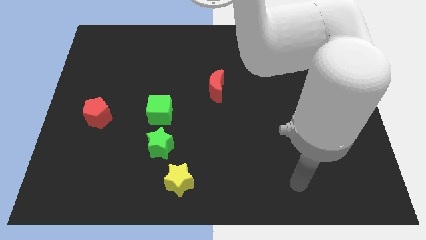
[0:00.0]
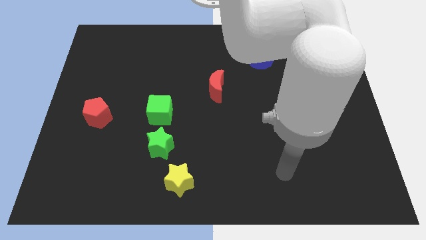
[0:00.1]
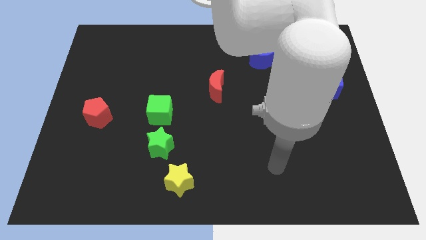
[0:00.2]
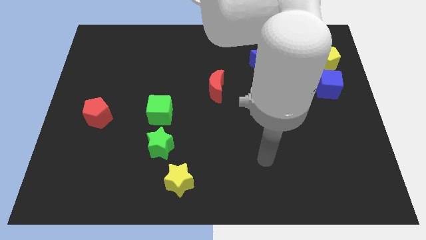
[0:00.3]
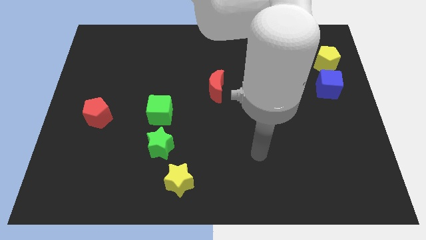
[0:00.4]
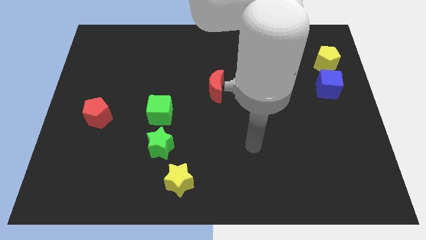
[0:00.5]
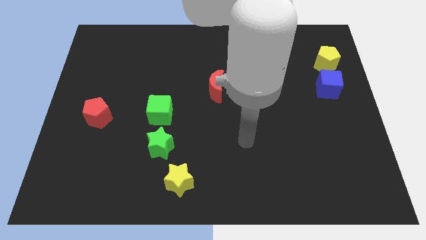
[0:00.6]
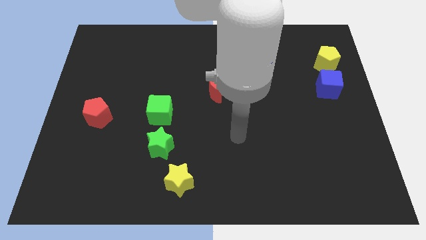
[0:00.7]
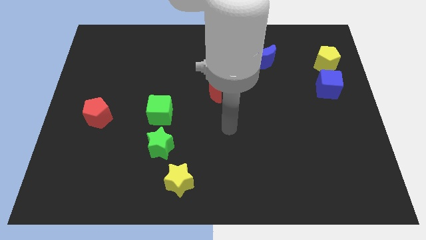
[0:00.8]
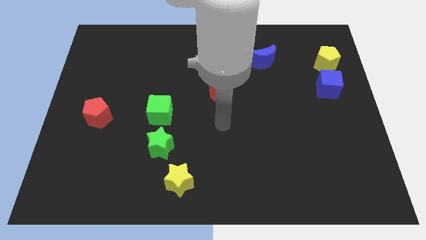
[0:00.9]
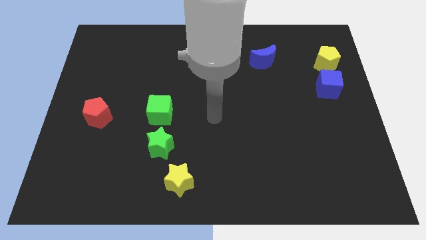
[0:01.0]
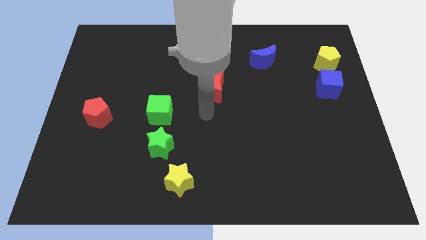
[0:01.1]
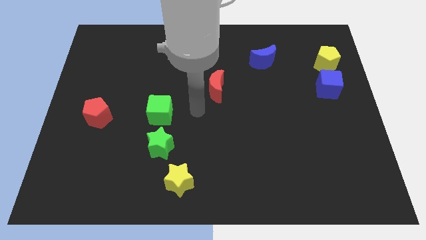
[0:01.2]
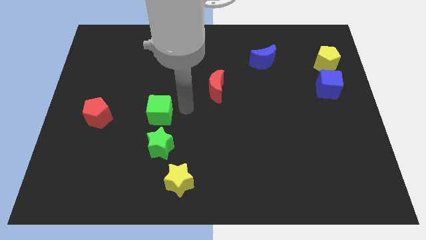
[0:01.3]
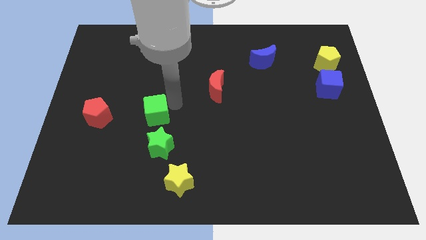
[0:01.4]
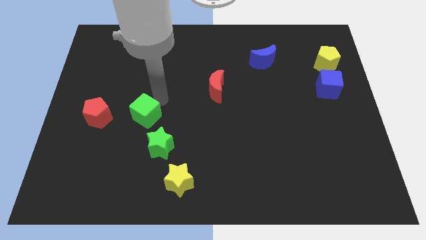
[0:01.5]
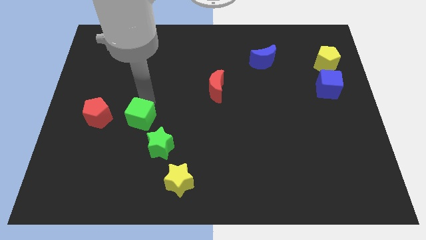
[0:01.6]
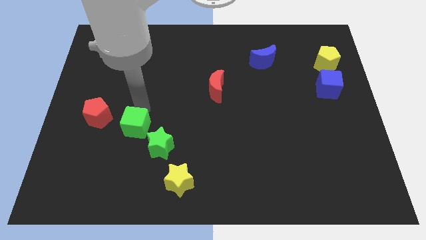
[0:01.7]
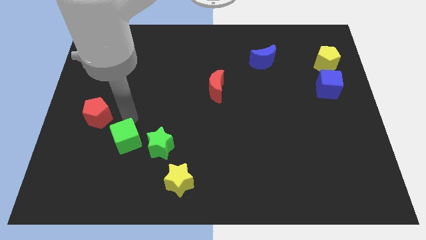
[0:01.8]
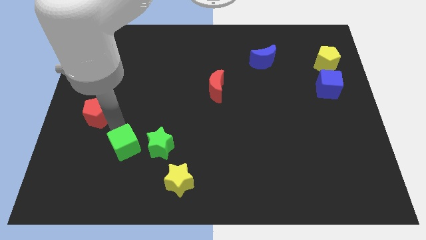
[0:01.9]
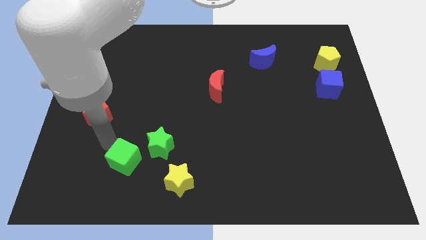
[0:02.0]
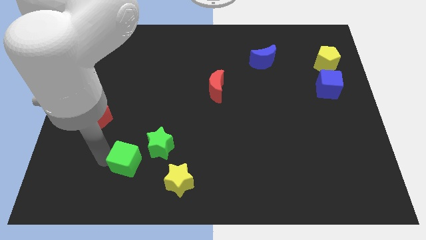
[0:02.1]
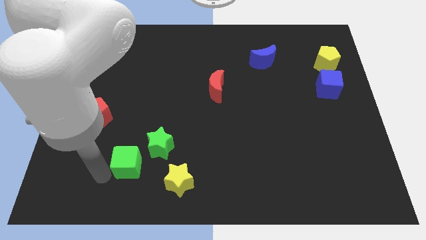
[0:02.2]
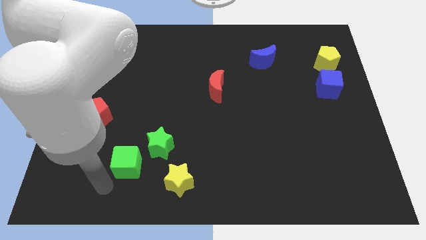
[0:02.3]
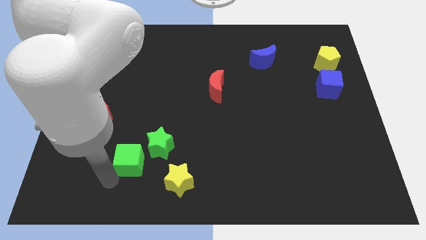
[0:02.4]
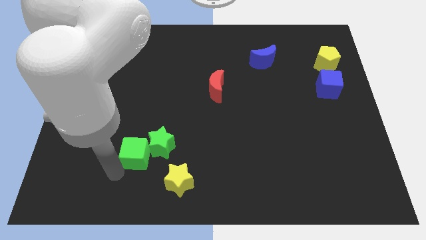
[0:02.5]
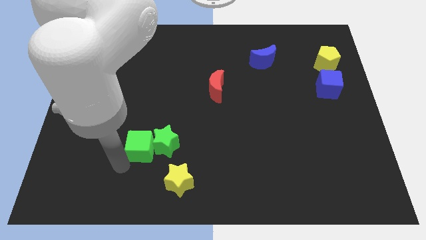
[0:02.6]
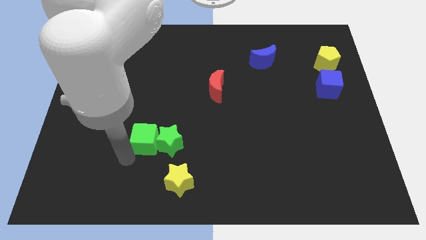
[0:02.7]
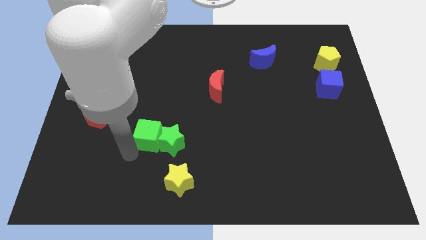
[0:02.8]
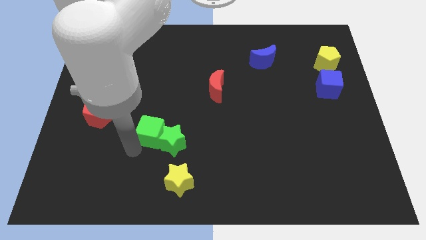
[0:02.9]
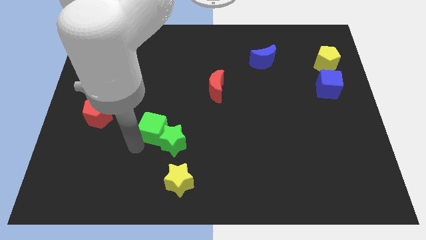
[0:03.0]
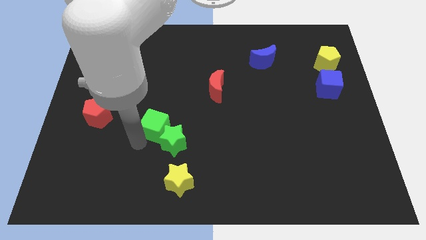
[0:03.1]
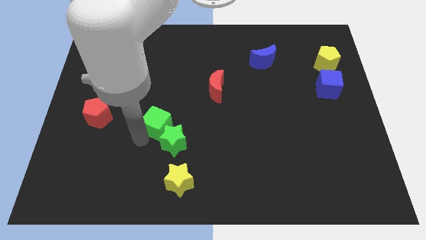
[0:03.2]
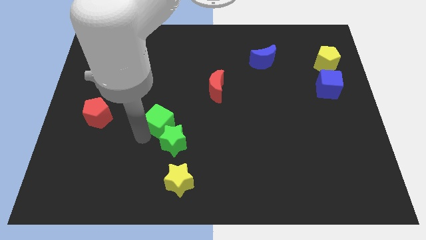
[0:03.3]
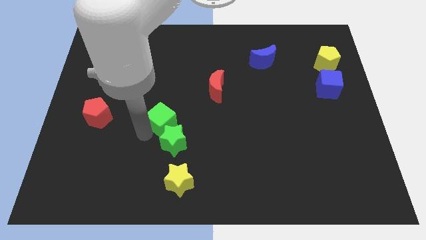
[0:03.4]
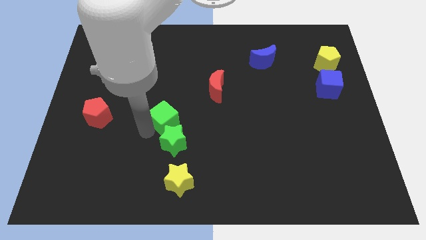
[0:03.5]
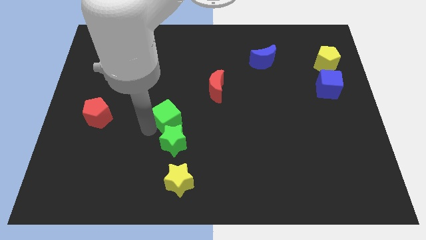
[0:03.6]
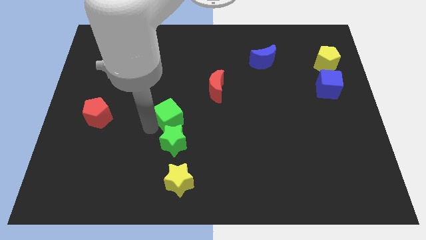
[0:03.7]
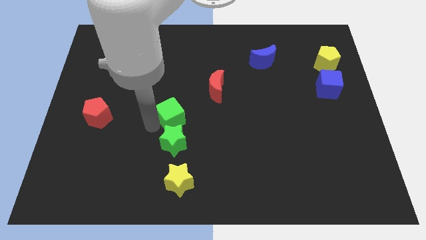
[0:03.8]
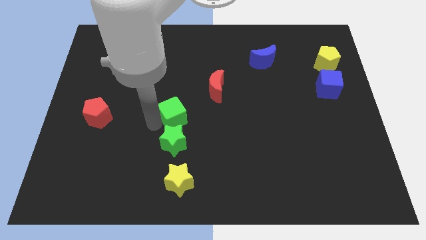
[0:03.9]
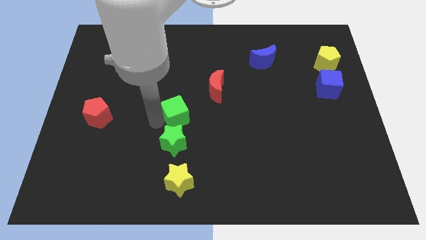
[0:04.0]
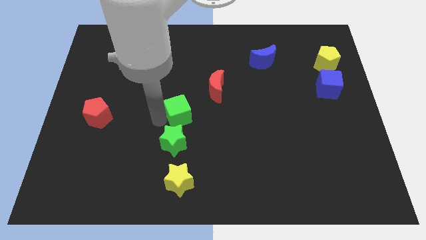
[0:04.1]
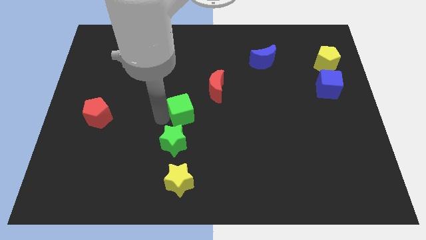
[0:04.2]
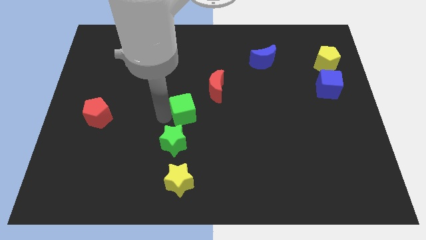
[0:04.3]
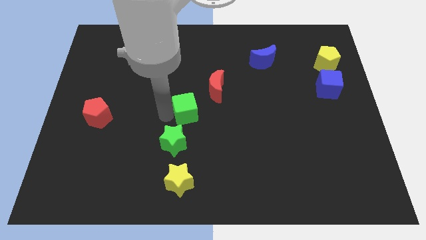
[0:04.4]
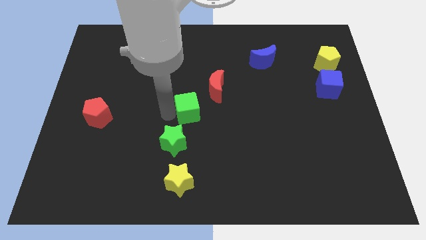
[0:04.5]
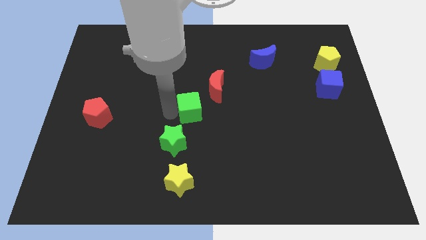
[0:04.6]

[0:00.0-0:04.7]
push the green cube to the right a little

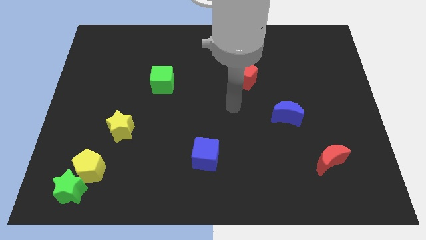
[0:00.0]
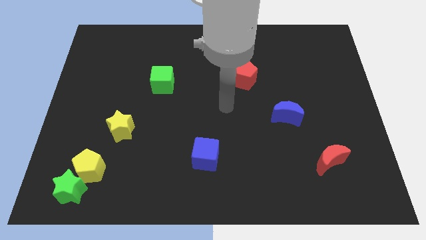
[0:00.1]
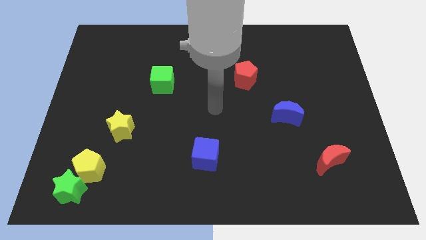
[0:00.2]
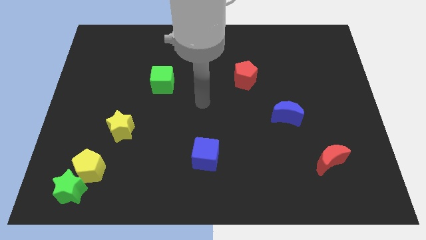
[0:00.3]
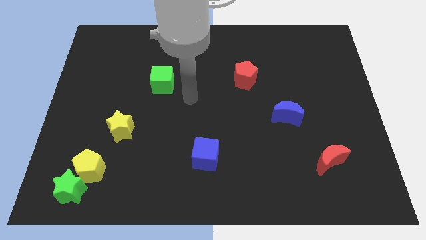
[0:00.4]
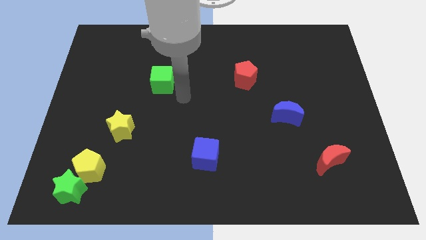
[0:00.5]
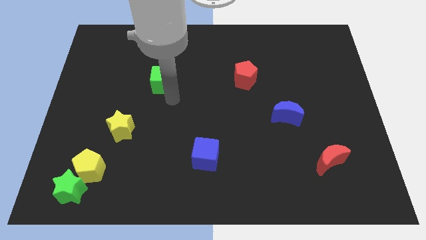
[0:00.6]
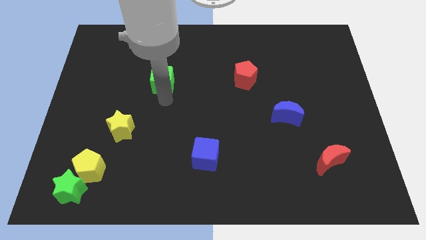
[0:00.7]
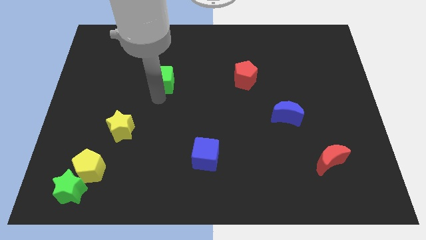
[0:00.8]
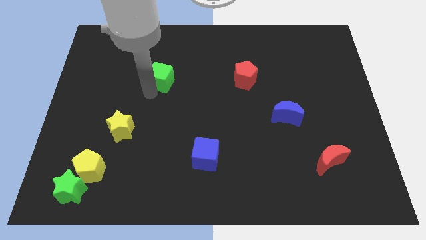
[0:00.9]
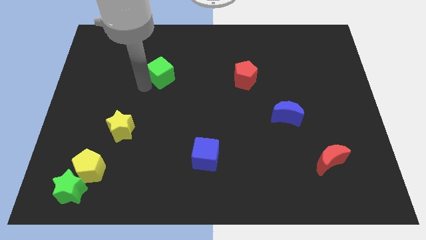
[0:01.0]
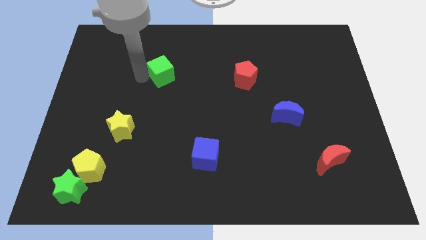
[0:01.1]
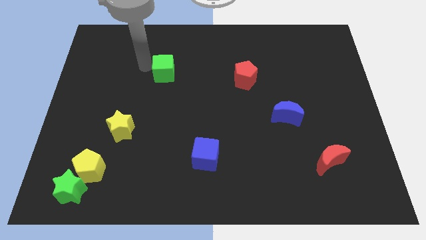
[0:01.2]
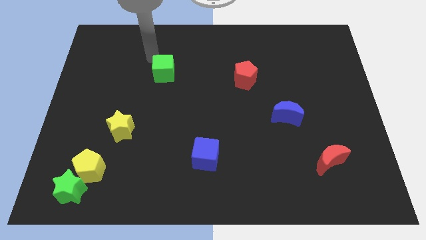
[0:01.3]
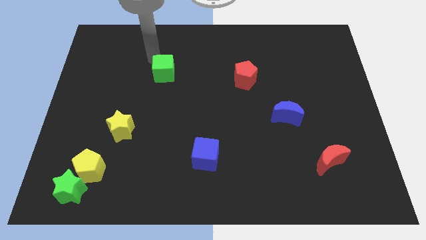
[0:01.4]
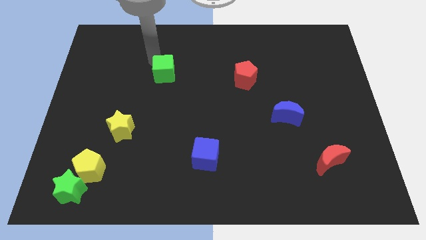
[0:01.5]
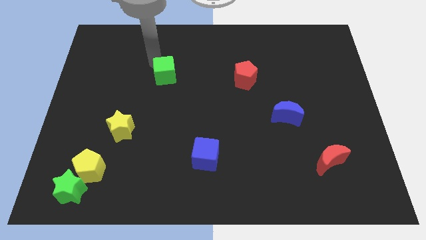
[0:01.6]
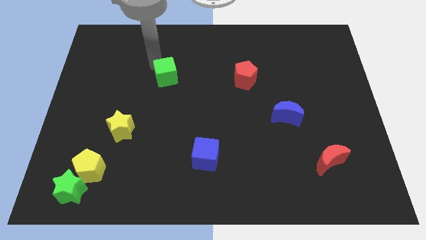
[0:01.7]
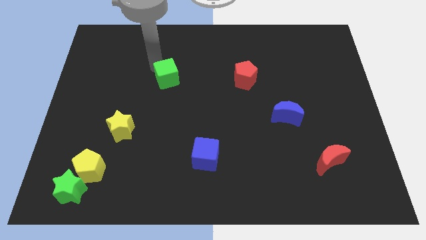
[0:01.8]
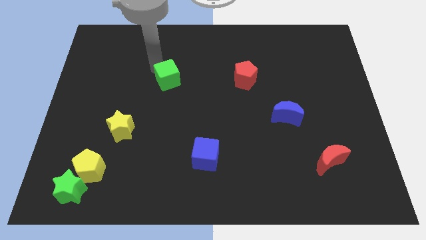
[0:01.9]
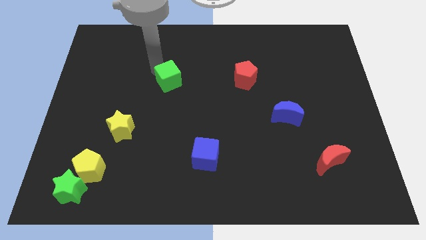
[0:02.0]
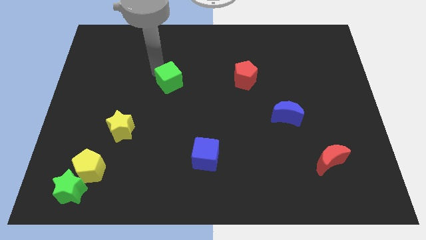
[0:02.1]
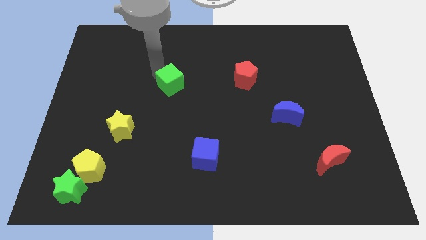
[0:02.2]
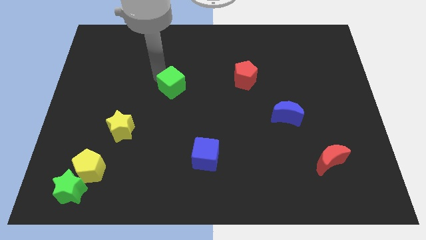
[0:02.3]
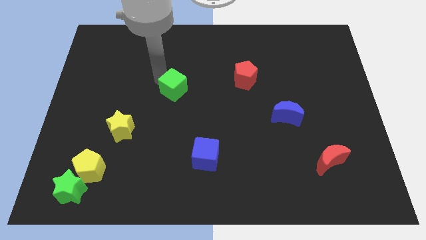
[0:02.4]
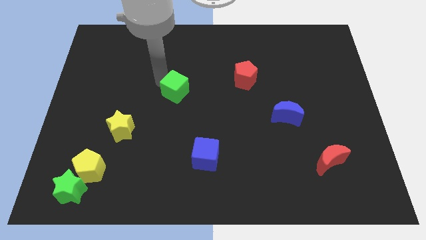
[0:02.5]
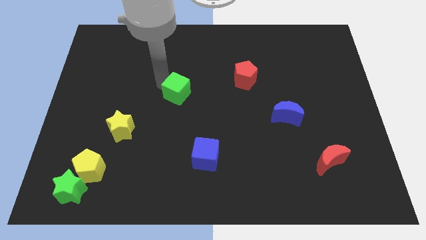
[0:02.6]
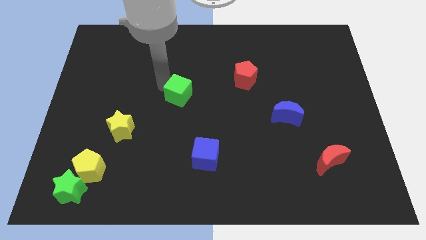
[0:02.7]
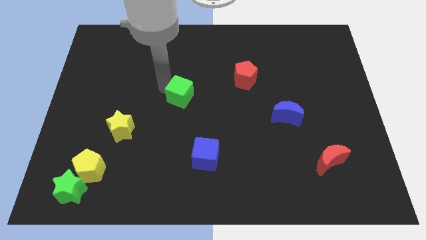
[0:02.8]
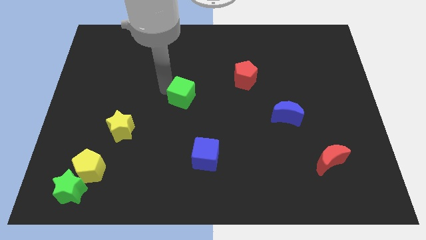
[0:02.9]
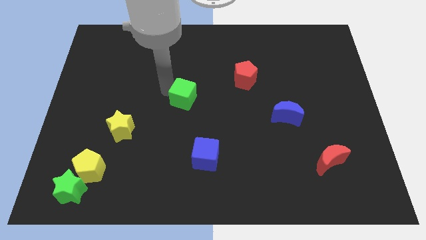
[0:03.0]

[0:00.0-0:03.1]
slightly move the green cube diagonally down and to the right

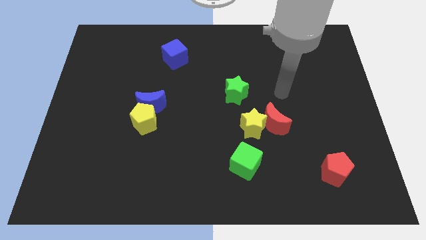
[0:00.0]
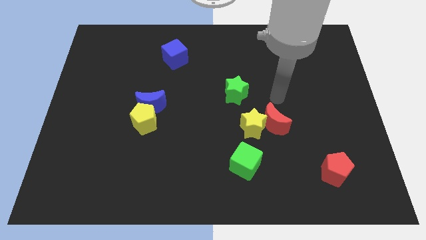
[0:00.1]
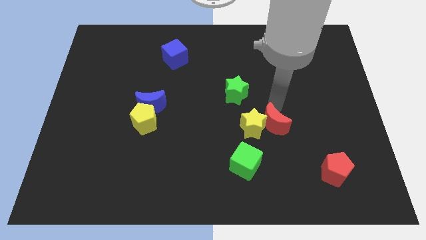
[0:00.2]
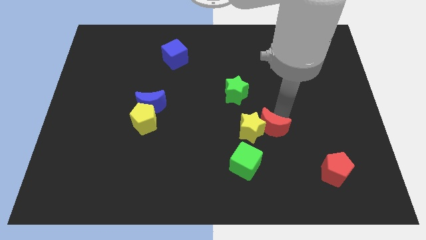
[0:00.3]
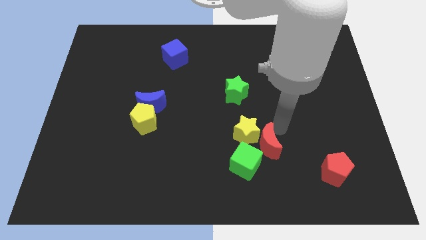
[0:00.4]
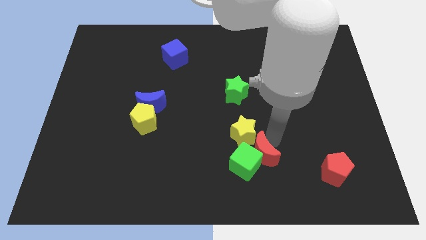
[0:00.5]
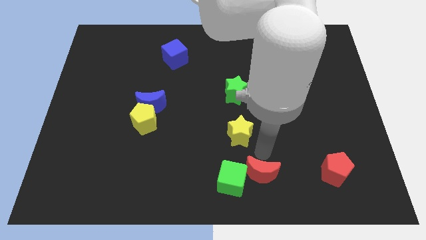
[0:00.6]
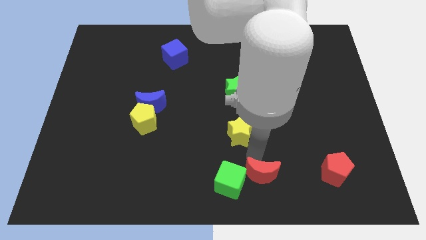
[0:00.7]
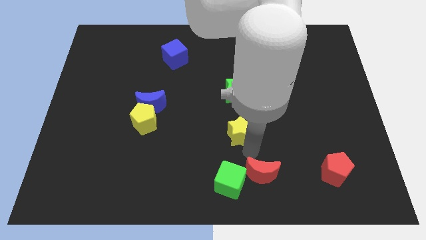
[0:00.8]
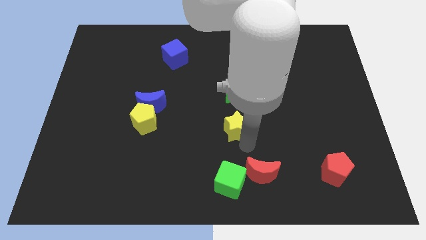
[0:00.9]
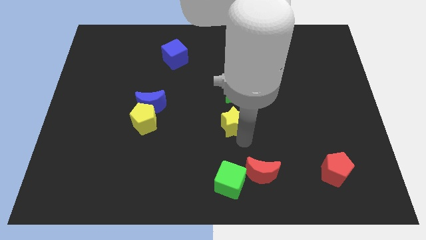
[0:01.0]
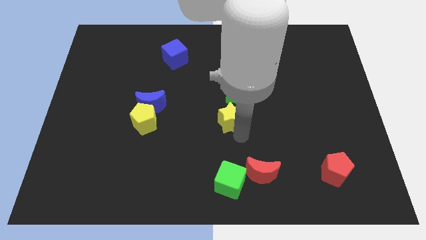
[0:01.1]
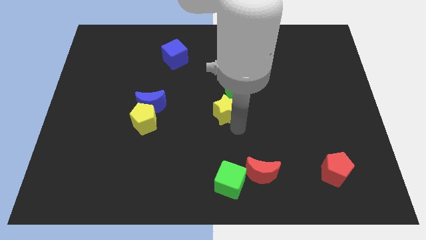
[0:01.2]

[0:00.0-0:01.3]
slide the yellow star somewhat upwards and left
